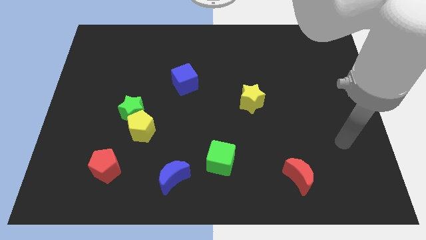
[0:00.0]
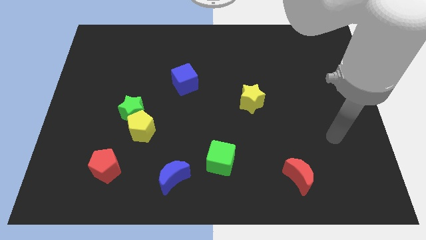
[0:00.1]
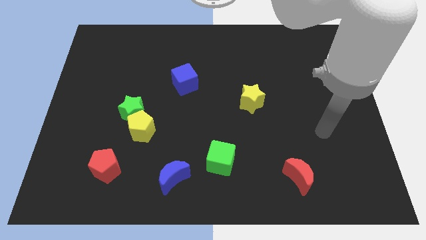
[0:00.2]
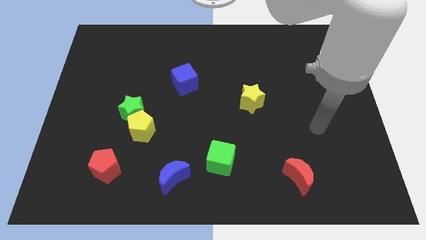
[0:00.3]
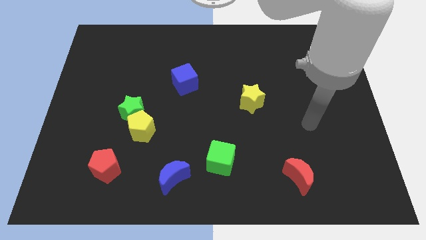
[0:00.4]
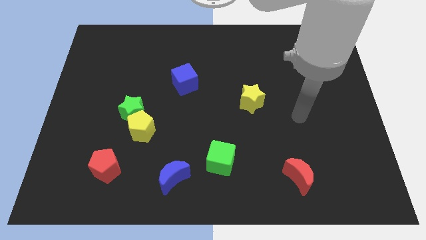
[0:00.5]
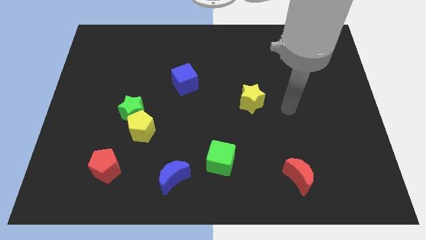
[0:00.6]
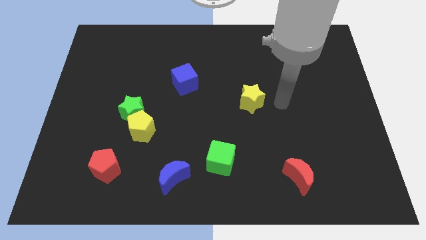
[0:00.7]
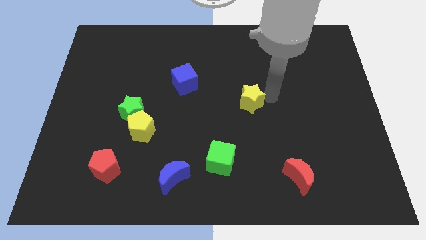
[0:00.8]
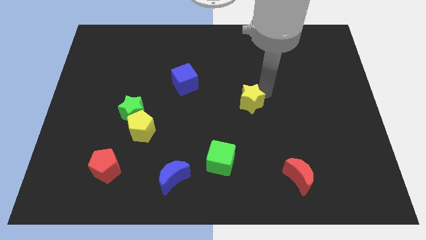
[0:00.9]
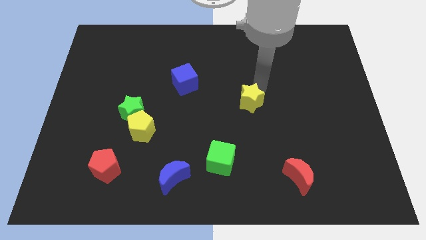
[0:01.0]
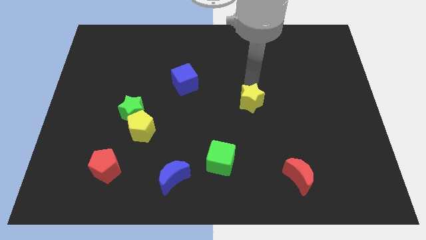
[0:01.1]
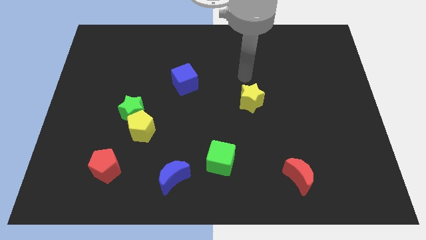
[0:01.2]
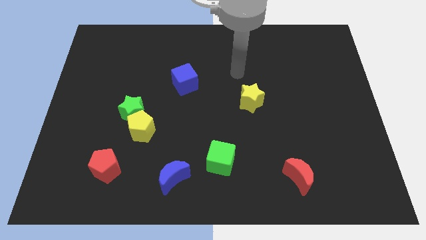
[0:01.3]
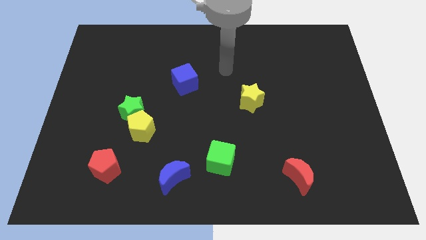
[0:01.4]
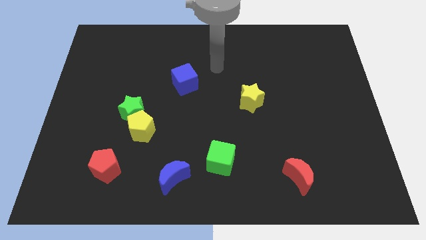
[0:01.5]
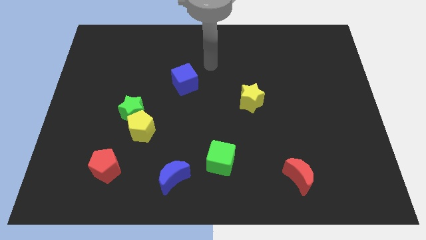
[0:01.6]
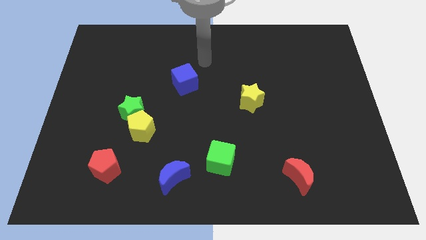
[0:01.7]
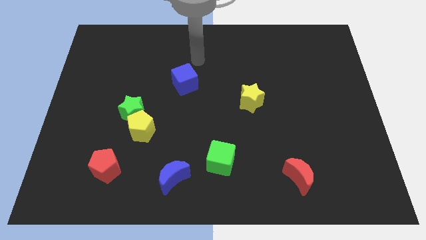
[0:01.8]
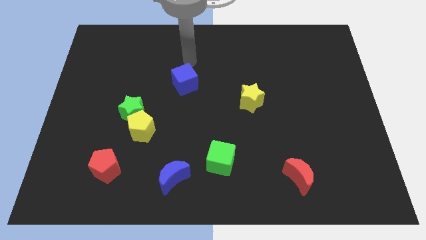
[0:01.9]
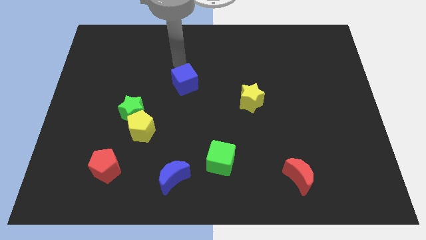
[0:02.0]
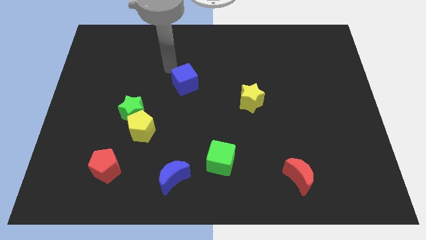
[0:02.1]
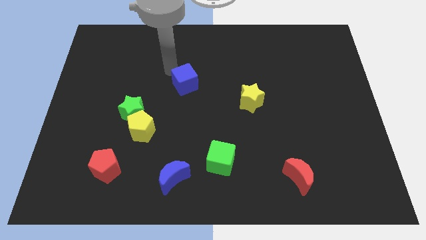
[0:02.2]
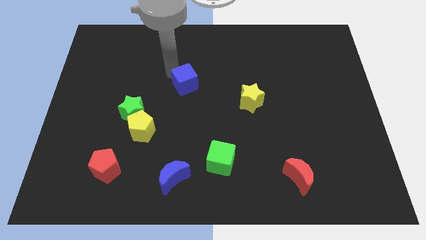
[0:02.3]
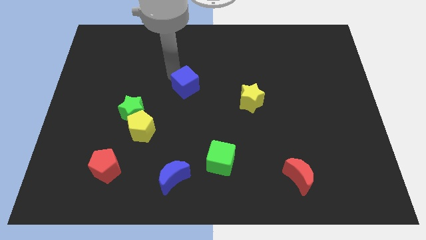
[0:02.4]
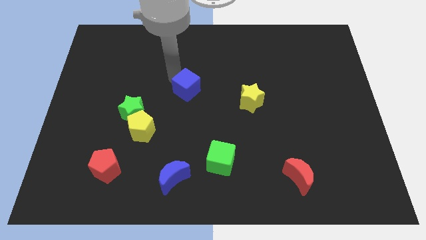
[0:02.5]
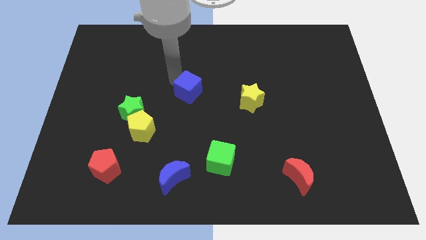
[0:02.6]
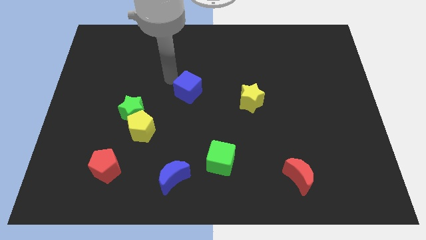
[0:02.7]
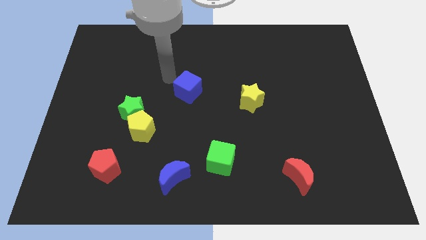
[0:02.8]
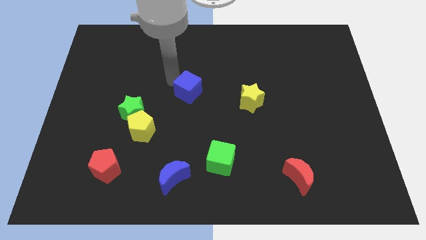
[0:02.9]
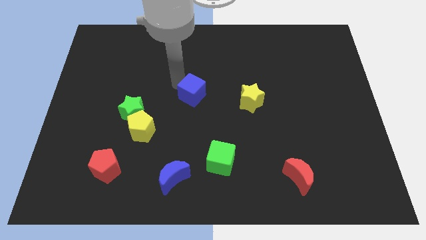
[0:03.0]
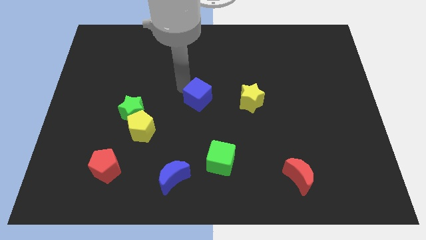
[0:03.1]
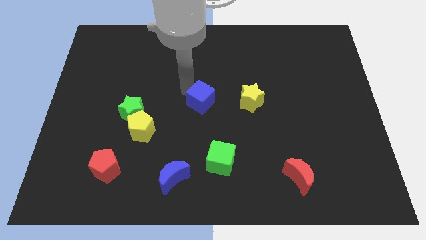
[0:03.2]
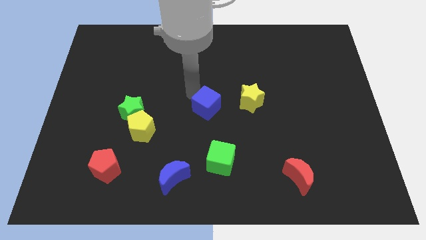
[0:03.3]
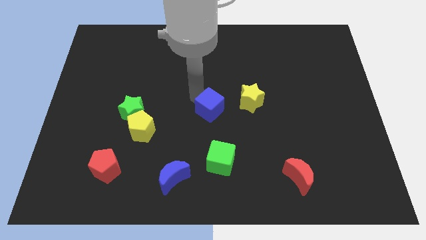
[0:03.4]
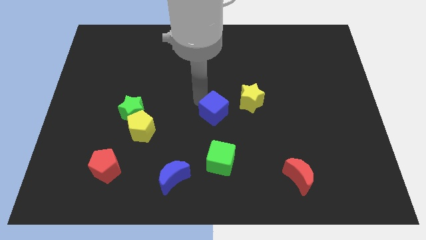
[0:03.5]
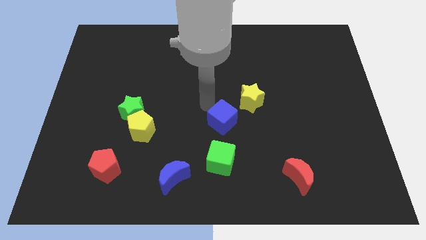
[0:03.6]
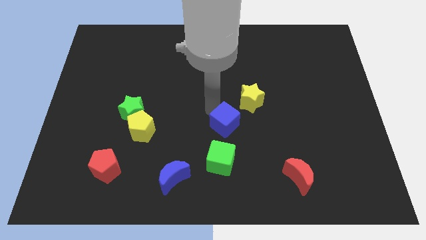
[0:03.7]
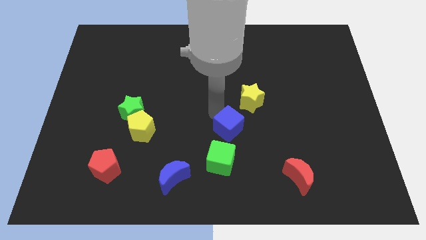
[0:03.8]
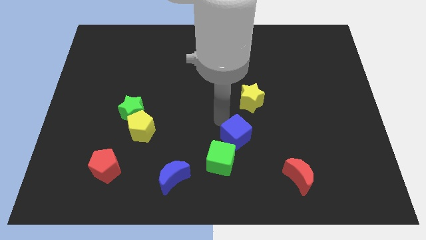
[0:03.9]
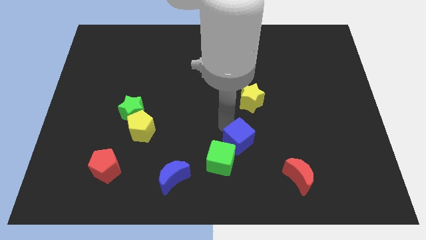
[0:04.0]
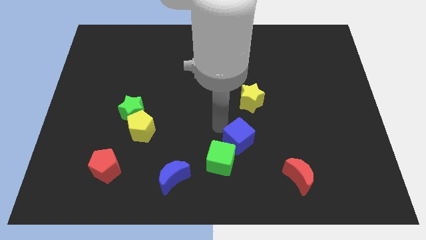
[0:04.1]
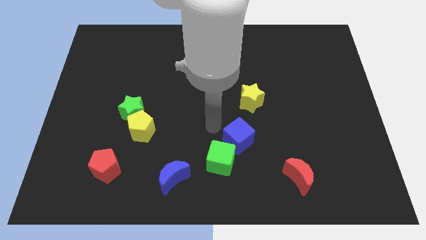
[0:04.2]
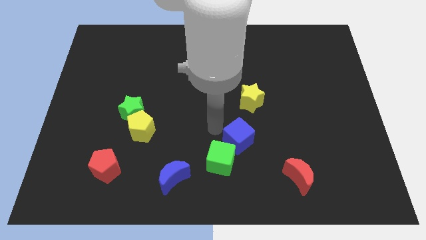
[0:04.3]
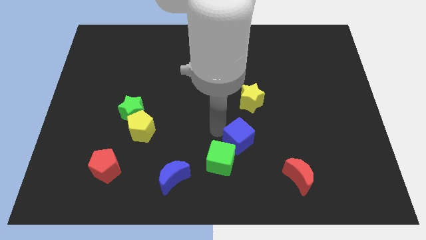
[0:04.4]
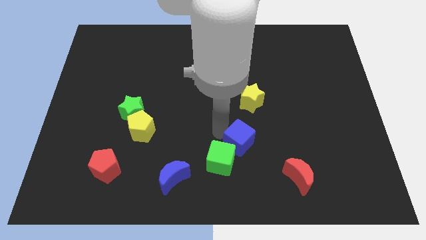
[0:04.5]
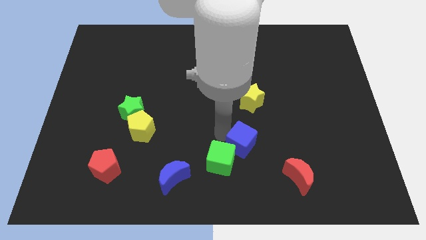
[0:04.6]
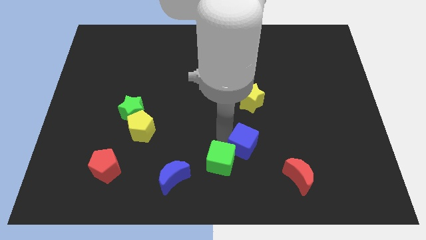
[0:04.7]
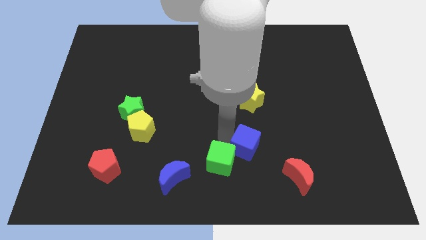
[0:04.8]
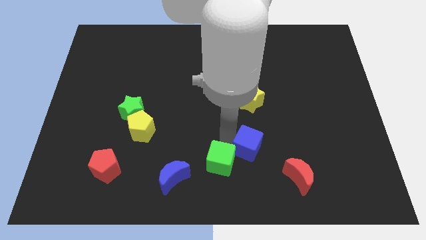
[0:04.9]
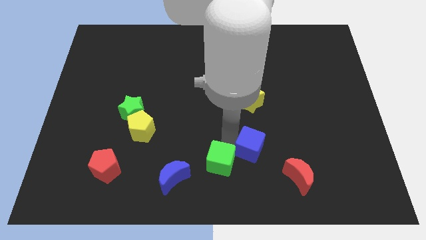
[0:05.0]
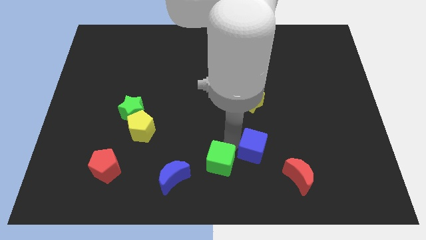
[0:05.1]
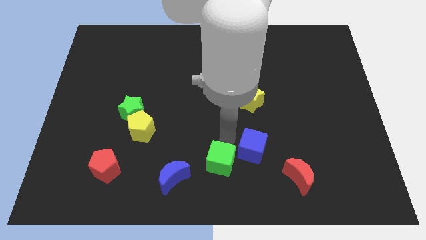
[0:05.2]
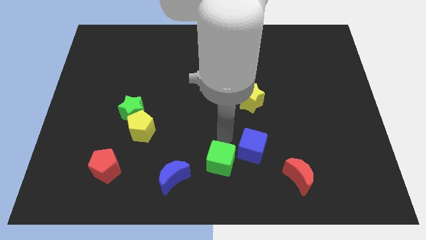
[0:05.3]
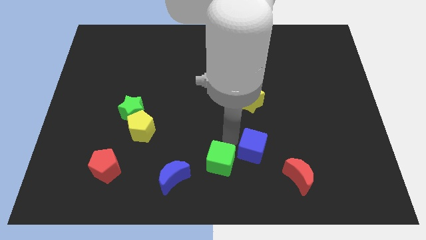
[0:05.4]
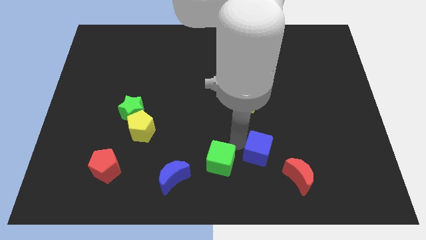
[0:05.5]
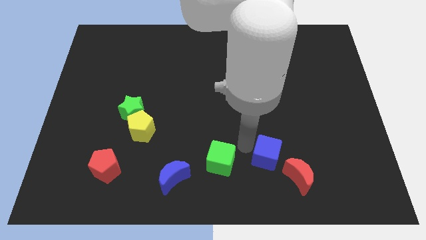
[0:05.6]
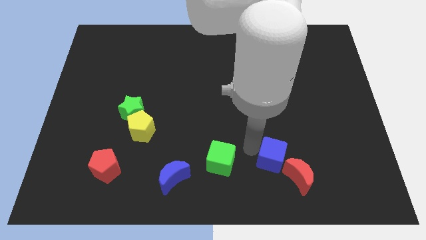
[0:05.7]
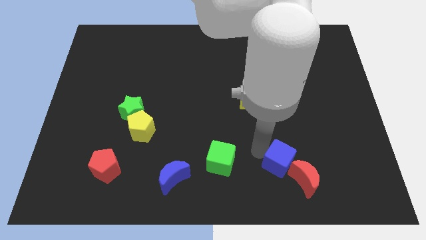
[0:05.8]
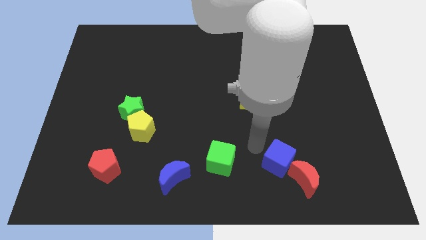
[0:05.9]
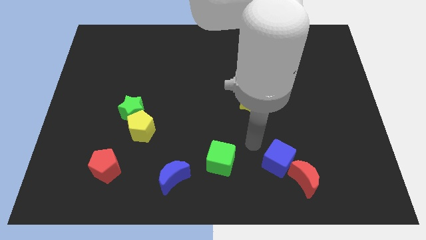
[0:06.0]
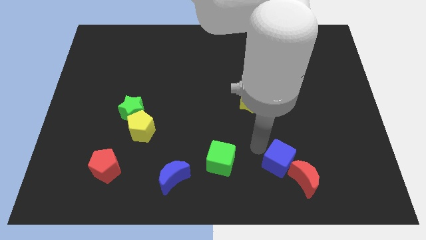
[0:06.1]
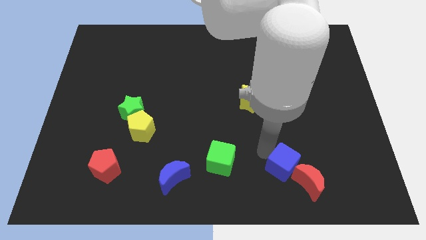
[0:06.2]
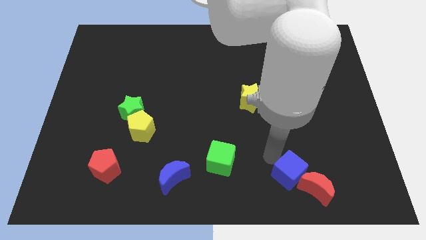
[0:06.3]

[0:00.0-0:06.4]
push the blue cube next to the red moon
